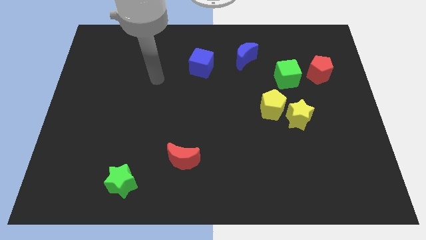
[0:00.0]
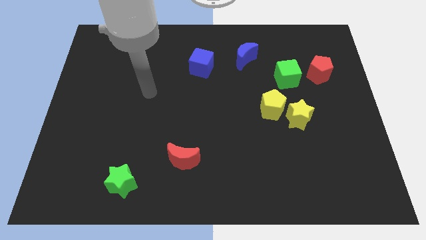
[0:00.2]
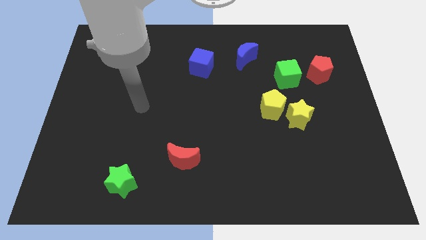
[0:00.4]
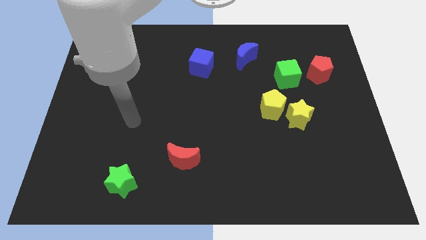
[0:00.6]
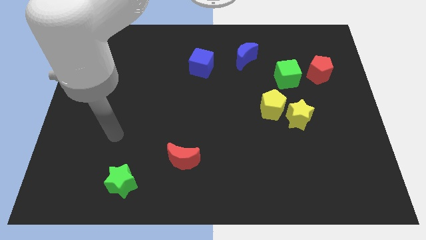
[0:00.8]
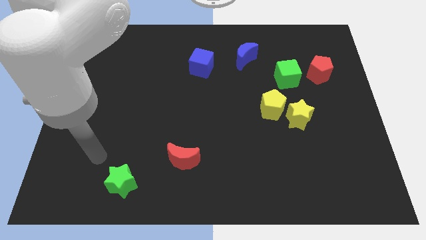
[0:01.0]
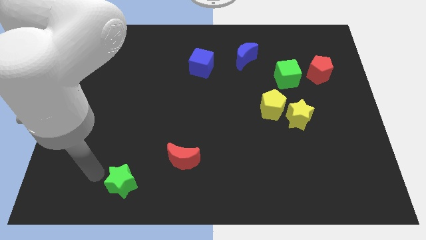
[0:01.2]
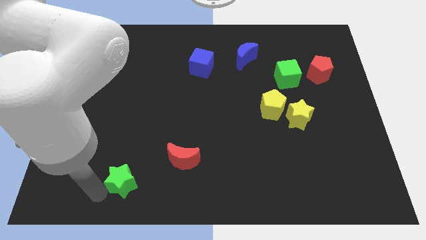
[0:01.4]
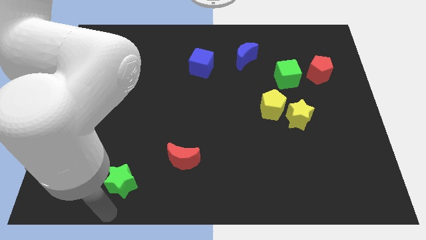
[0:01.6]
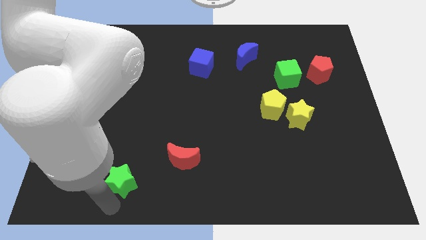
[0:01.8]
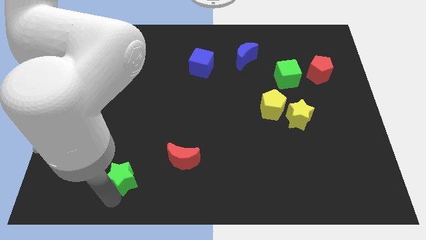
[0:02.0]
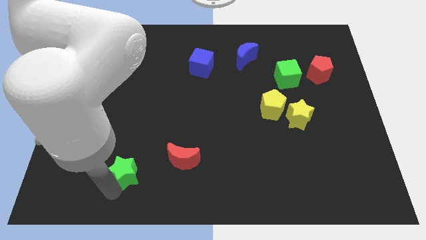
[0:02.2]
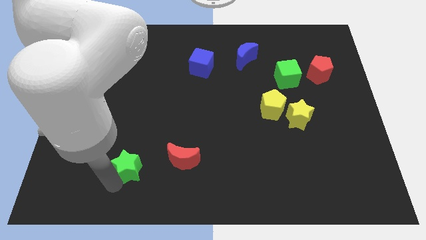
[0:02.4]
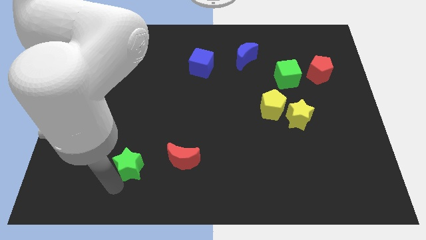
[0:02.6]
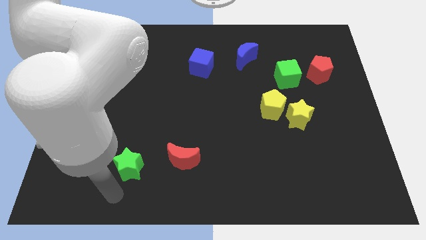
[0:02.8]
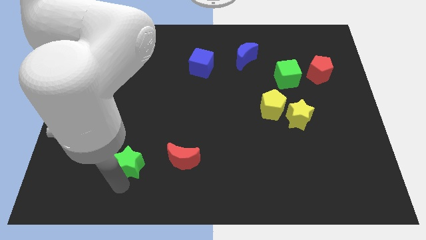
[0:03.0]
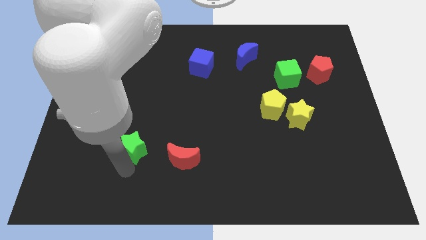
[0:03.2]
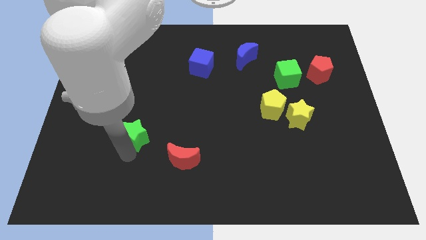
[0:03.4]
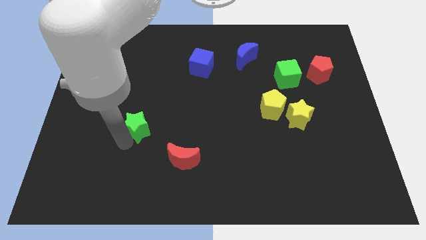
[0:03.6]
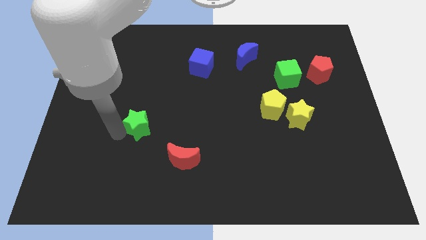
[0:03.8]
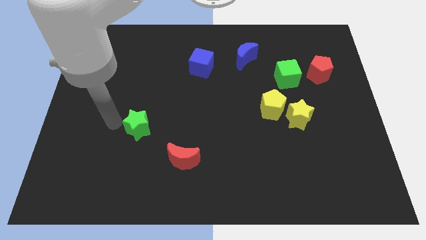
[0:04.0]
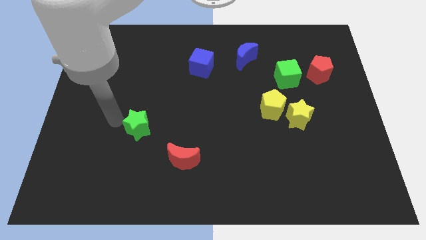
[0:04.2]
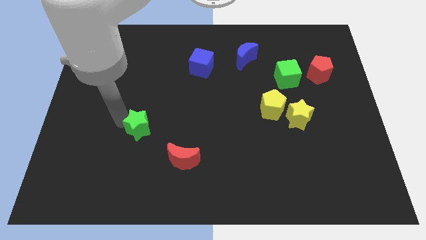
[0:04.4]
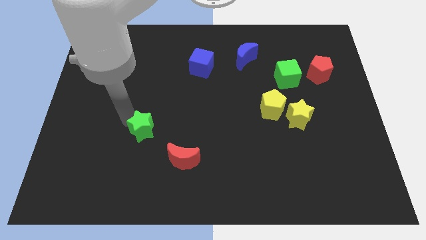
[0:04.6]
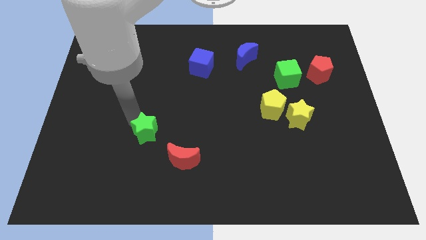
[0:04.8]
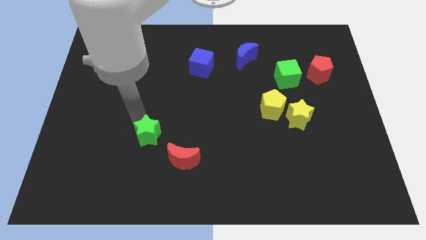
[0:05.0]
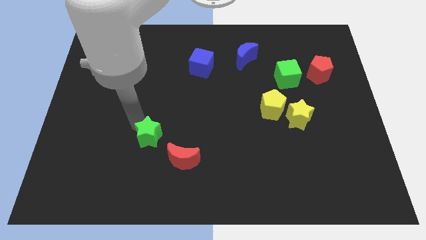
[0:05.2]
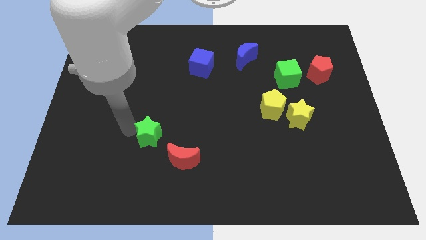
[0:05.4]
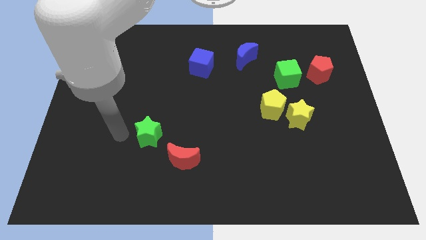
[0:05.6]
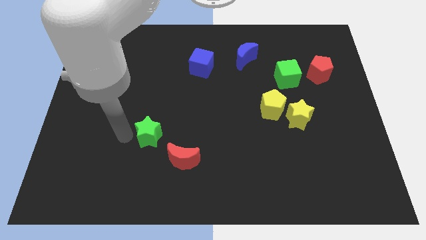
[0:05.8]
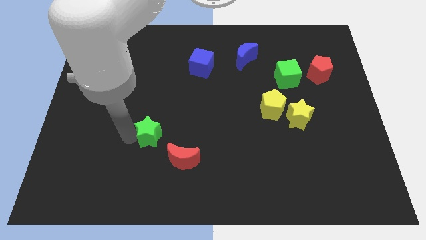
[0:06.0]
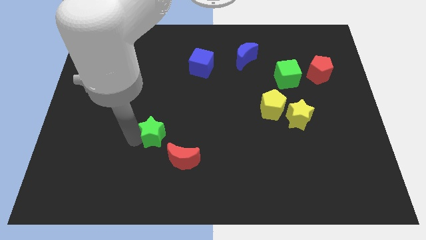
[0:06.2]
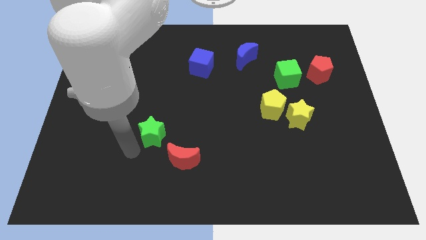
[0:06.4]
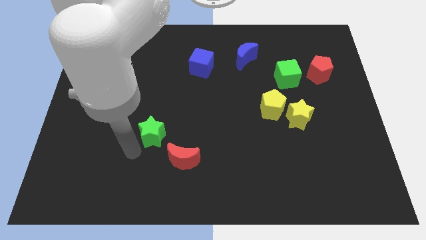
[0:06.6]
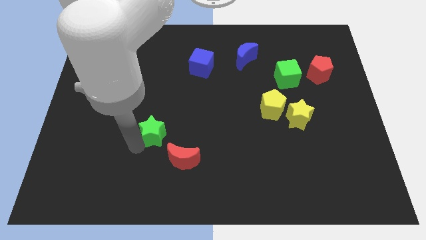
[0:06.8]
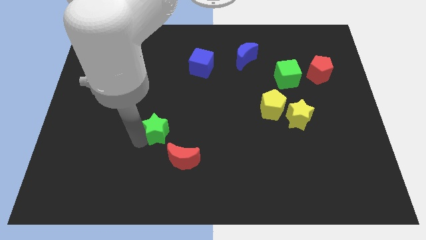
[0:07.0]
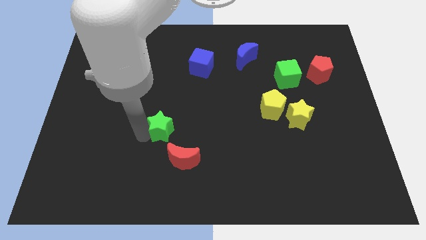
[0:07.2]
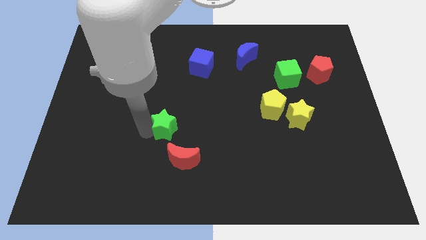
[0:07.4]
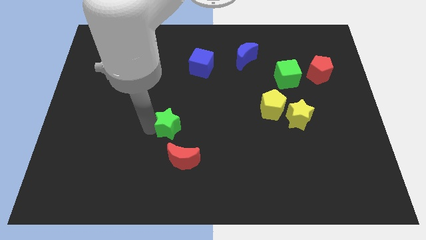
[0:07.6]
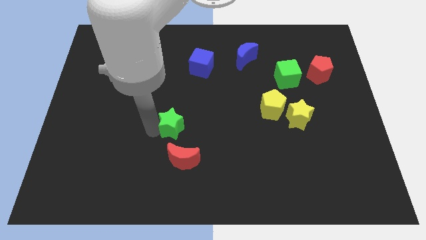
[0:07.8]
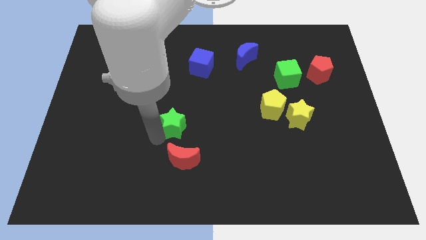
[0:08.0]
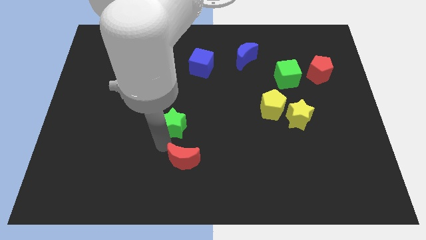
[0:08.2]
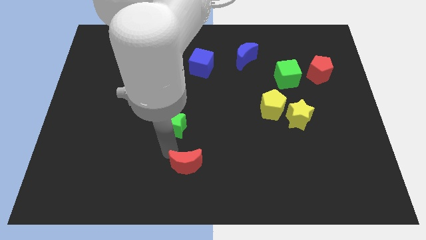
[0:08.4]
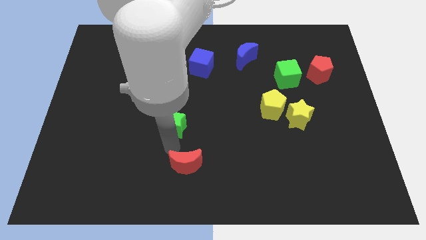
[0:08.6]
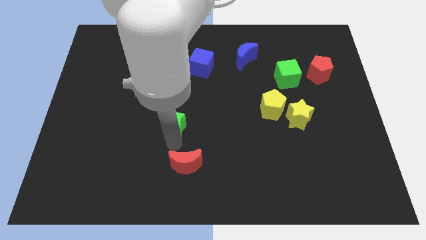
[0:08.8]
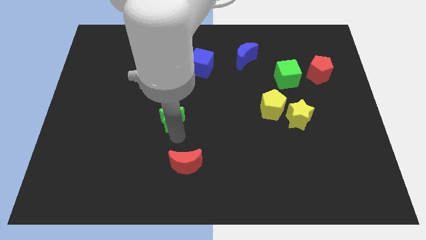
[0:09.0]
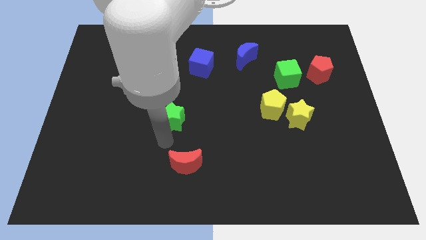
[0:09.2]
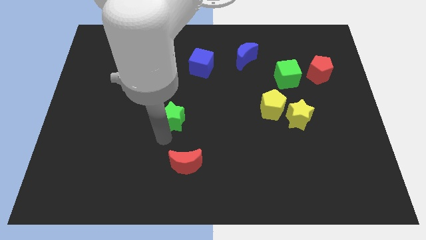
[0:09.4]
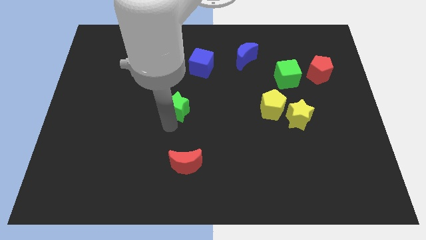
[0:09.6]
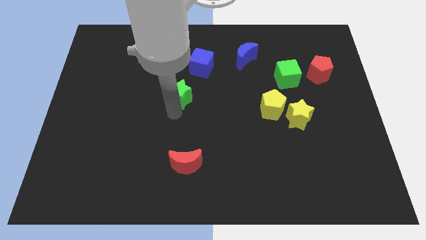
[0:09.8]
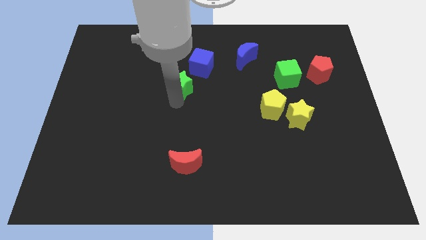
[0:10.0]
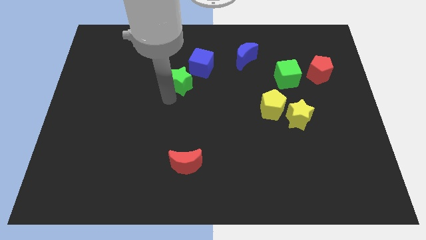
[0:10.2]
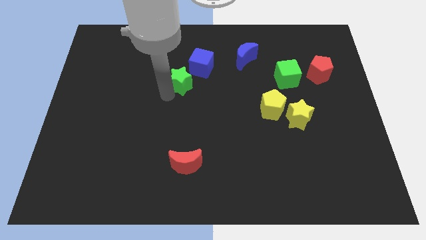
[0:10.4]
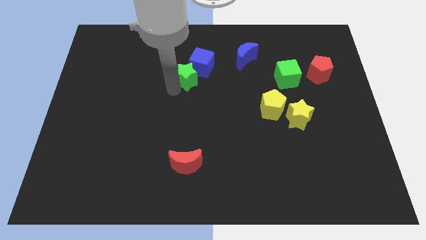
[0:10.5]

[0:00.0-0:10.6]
put the green star to the blue cube

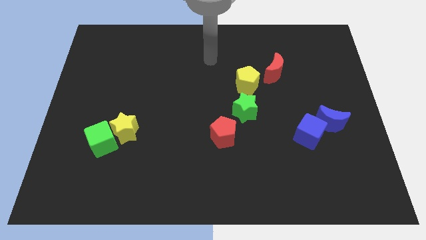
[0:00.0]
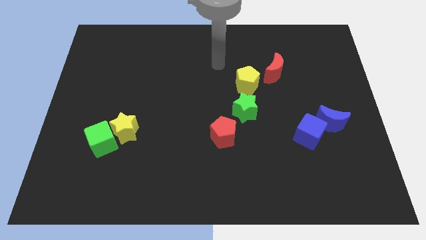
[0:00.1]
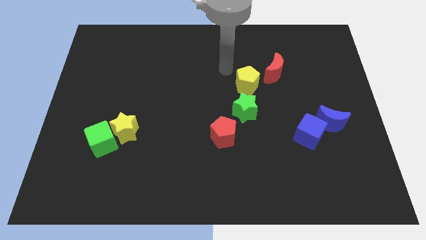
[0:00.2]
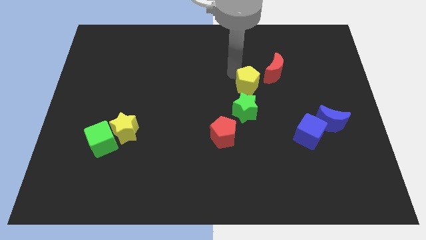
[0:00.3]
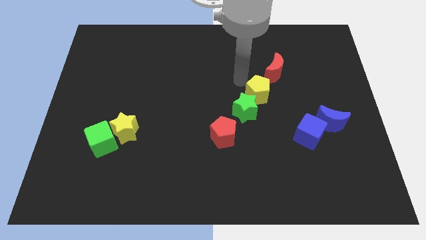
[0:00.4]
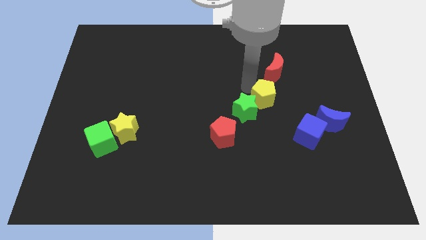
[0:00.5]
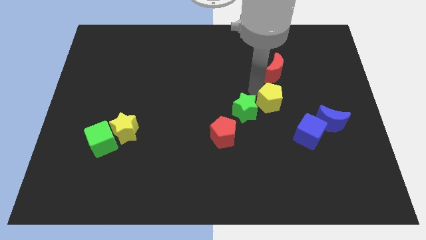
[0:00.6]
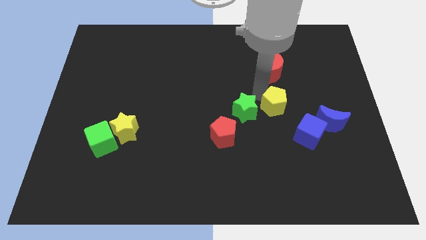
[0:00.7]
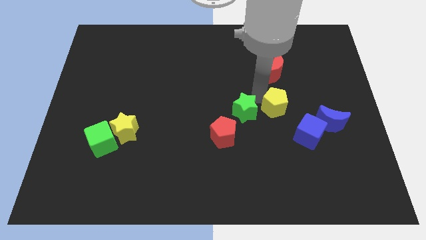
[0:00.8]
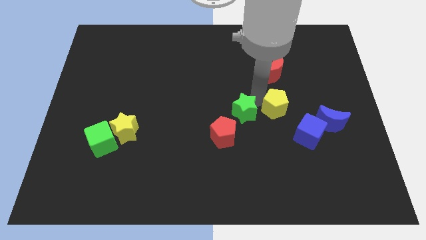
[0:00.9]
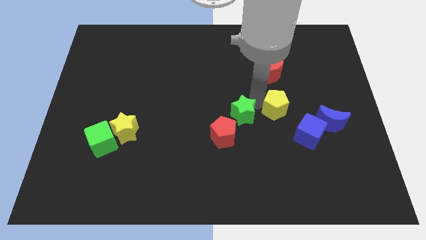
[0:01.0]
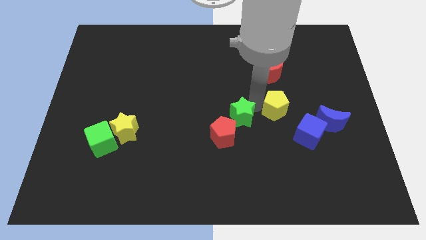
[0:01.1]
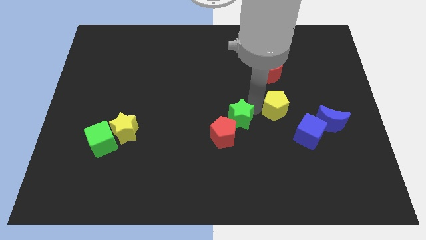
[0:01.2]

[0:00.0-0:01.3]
move the green star next to the red pentagon

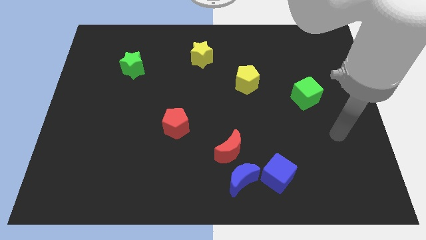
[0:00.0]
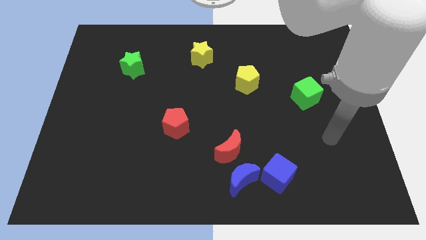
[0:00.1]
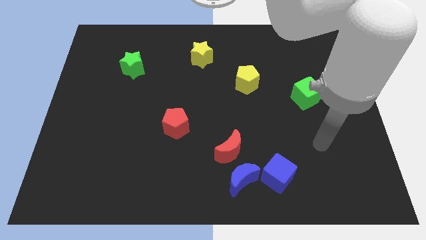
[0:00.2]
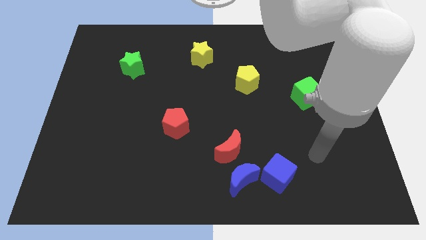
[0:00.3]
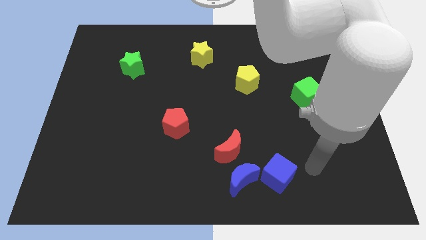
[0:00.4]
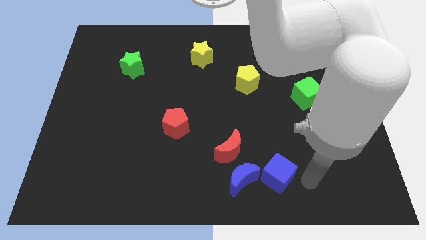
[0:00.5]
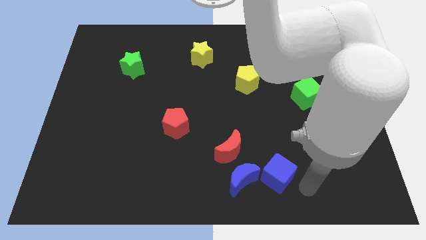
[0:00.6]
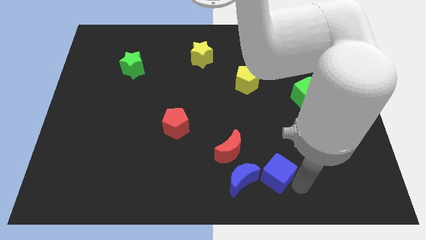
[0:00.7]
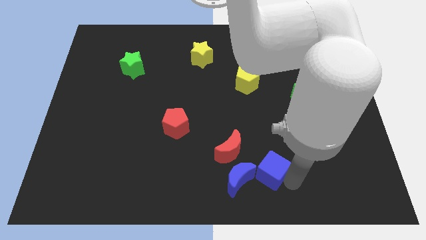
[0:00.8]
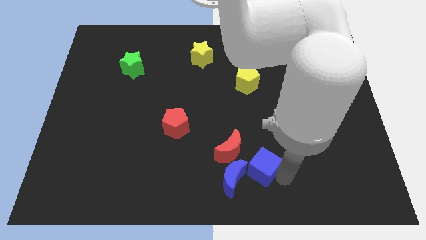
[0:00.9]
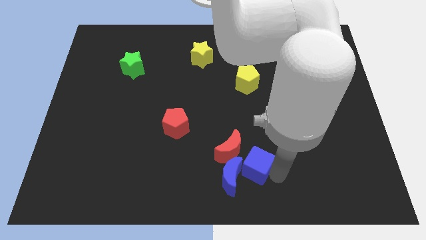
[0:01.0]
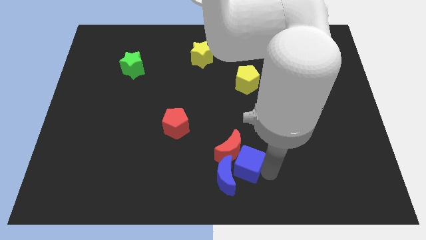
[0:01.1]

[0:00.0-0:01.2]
put the blue cube to the red moon
